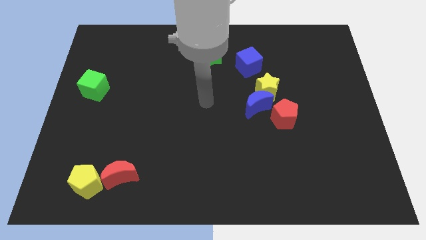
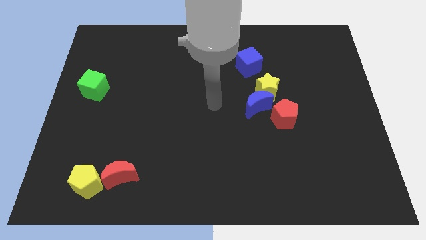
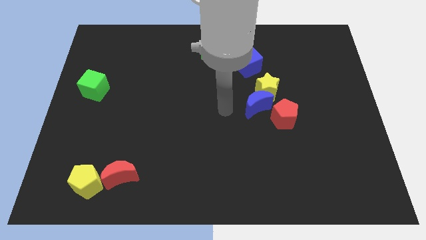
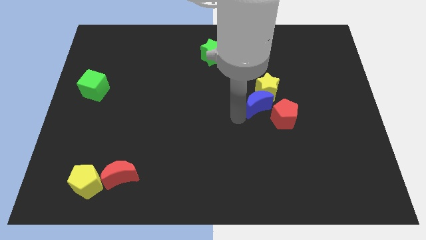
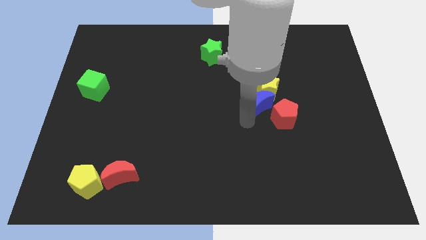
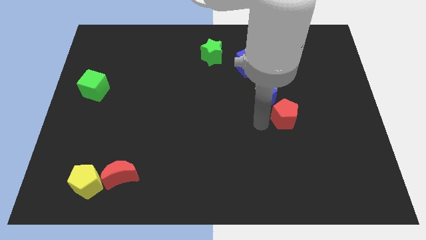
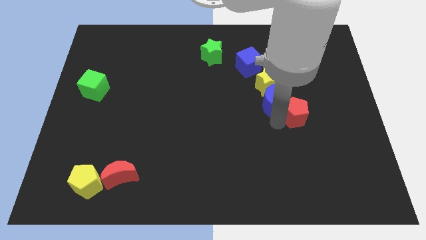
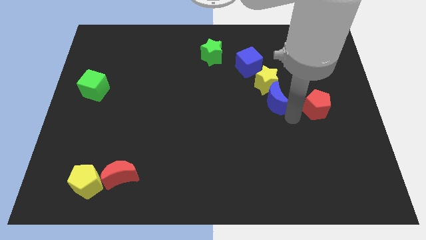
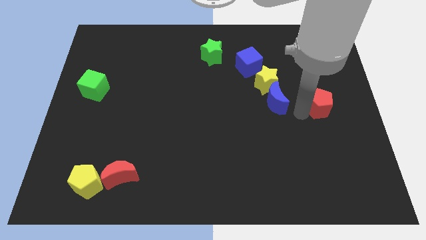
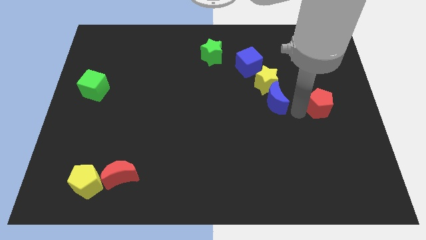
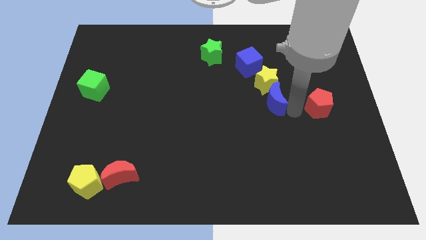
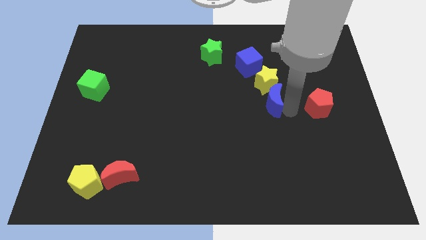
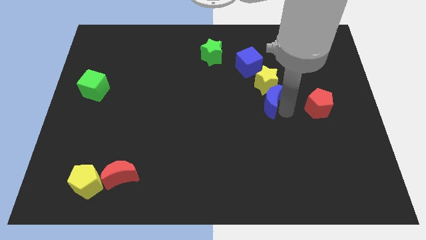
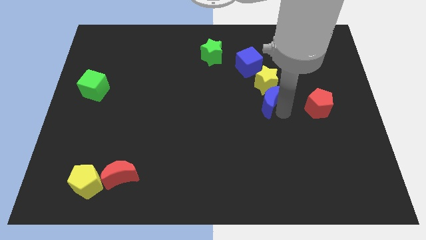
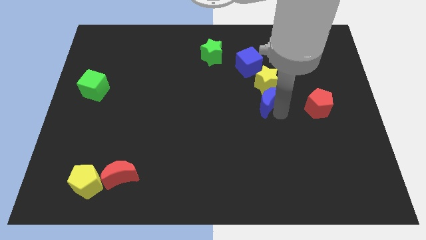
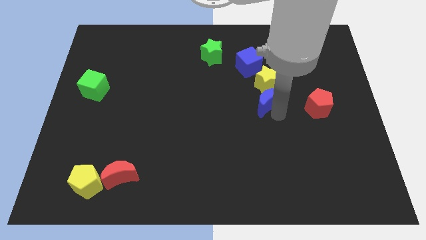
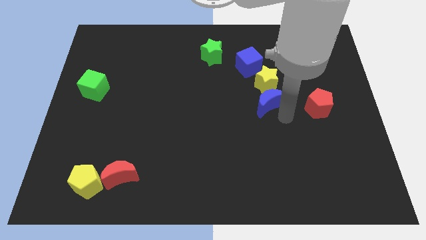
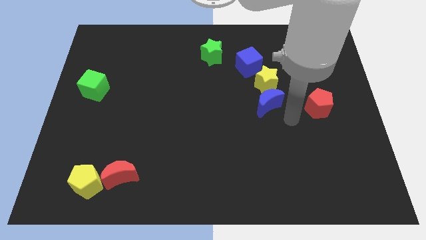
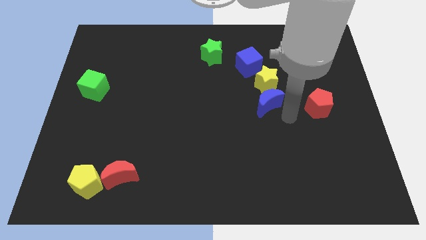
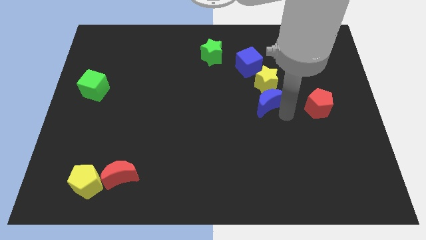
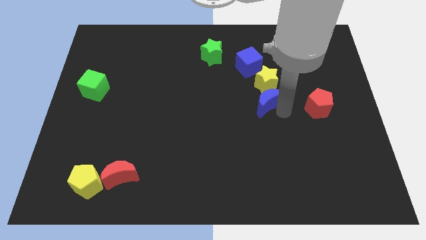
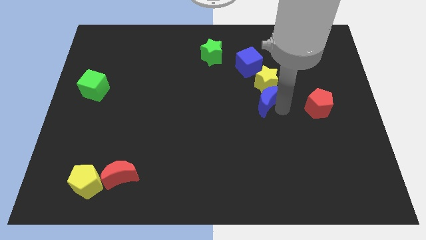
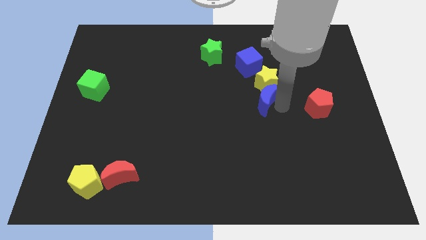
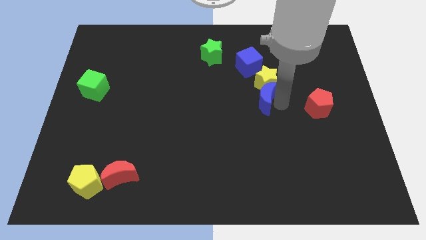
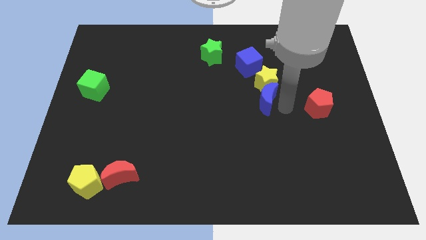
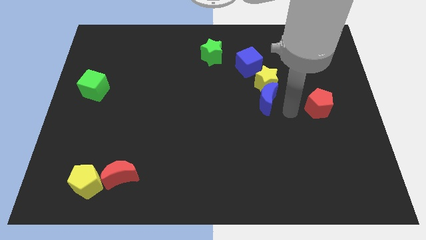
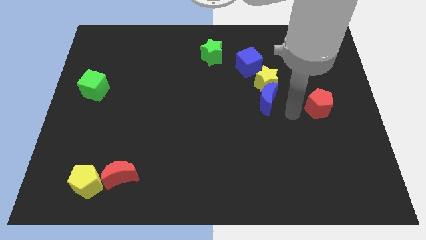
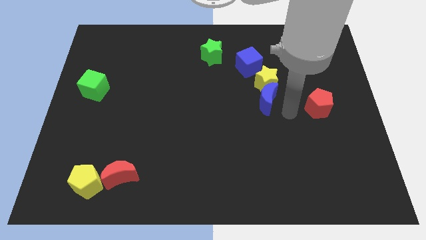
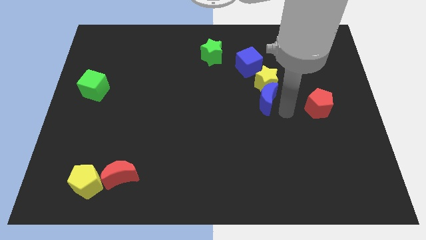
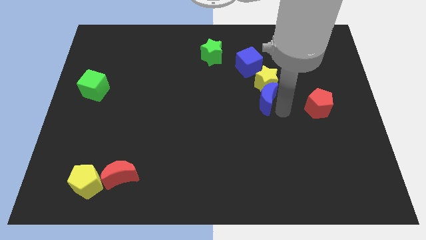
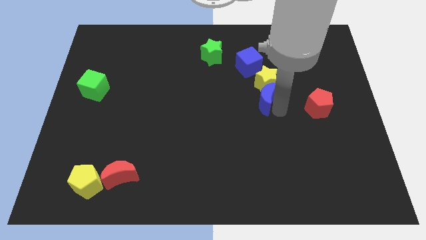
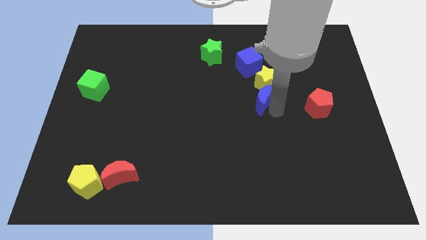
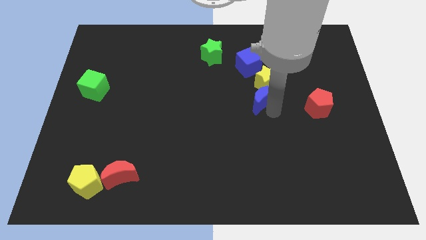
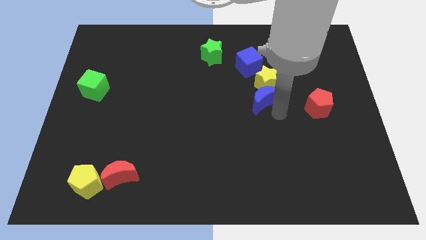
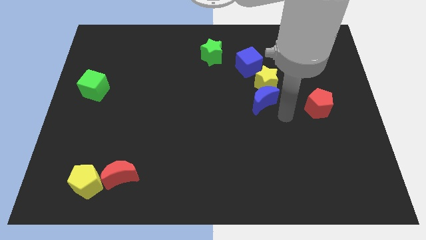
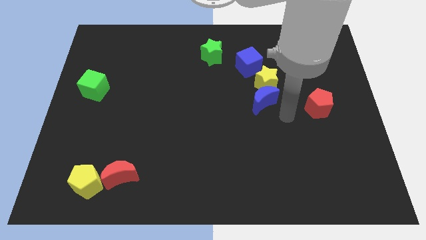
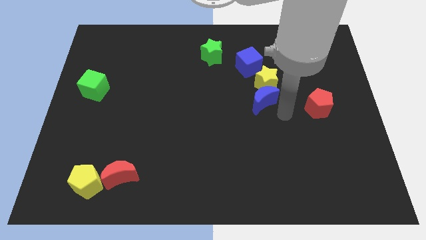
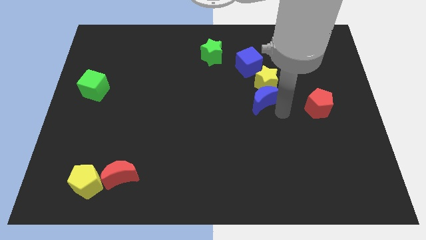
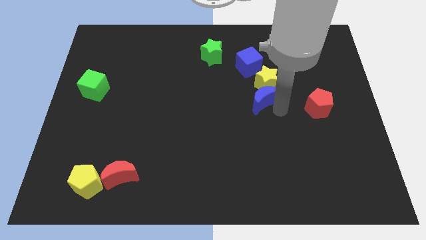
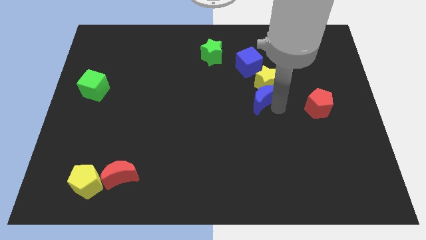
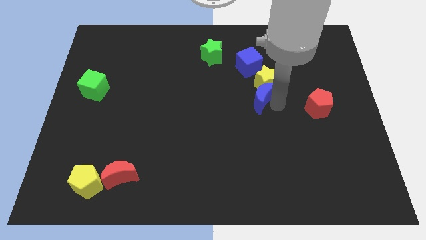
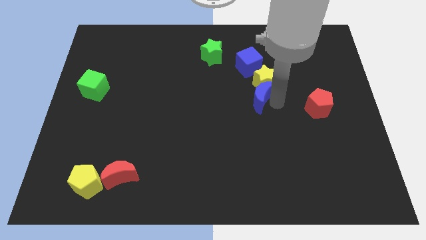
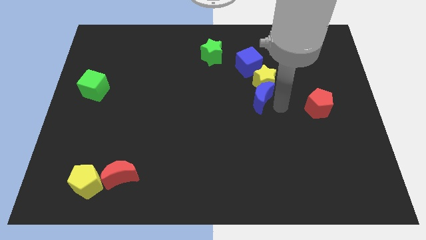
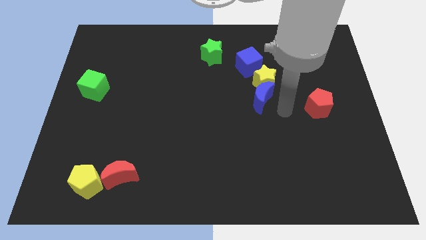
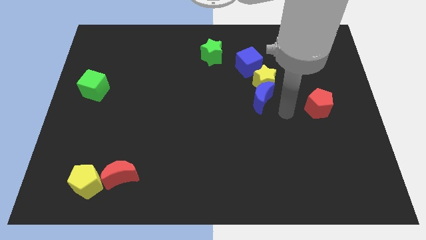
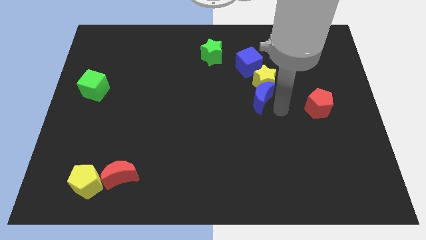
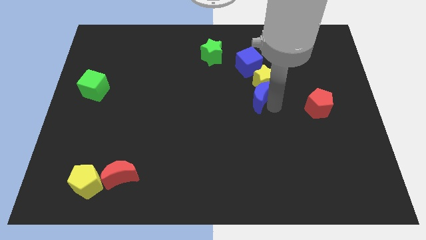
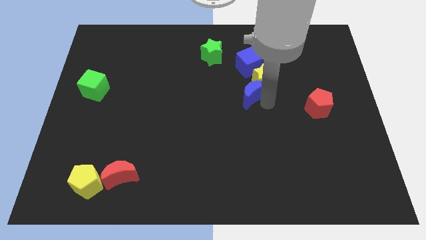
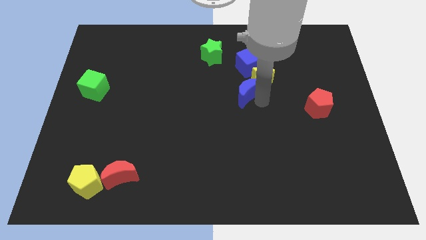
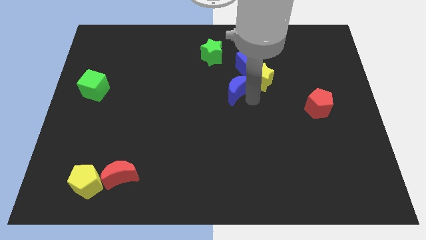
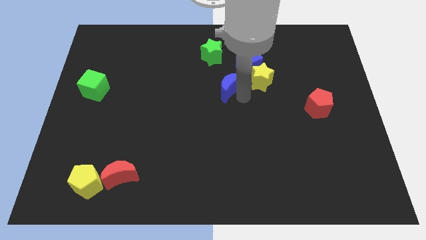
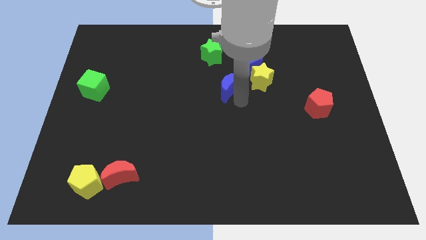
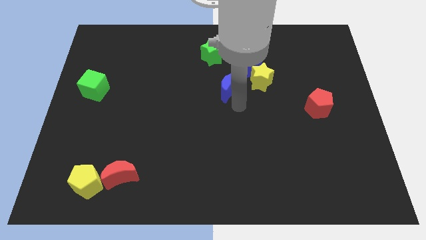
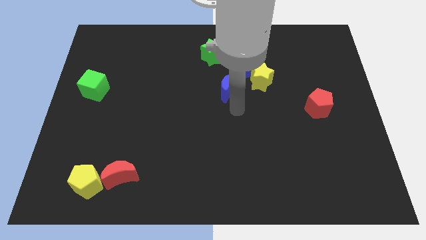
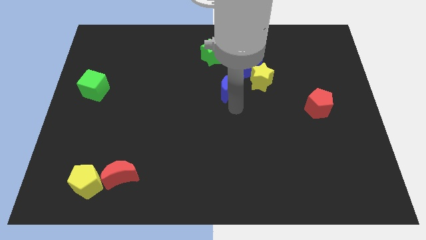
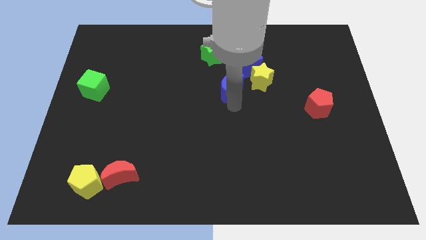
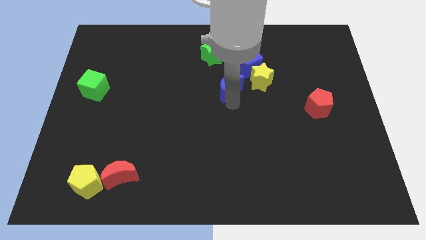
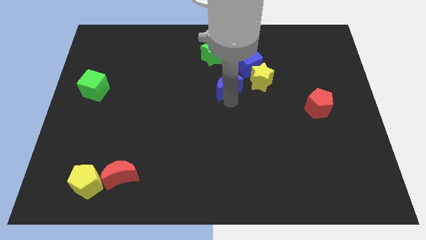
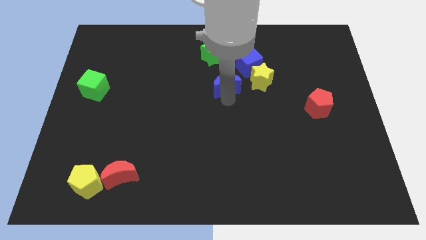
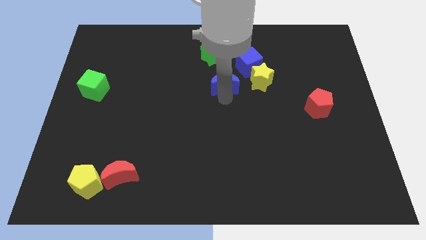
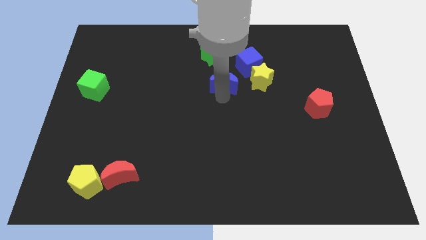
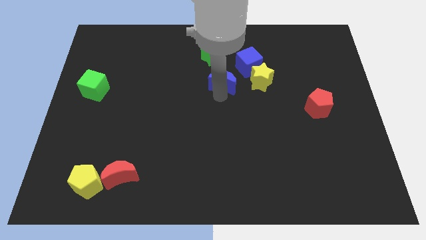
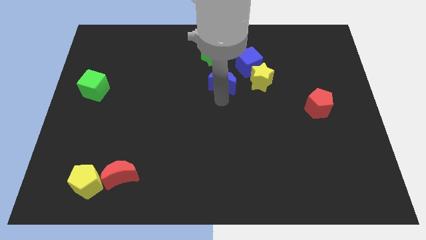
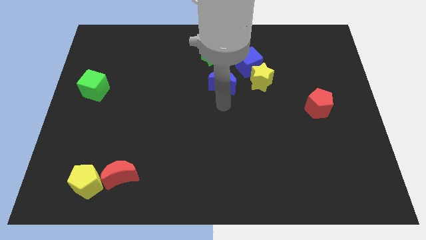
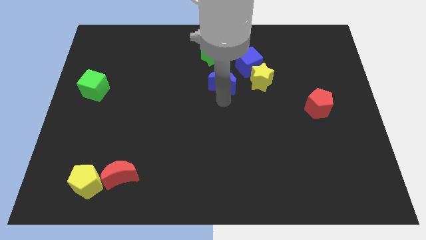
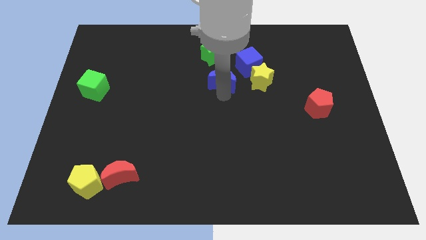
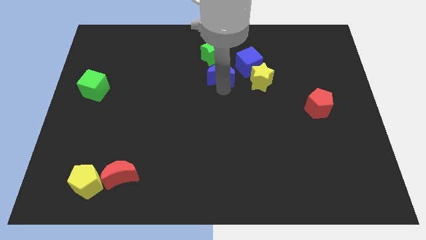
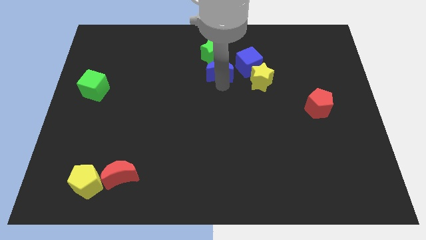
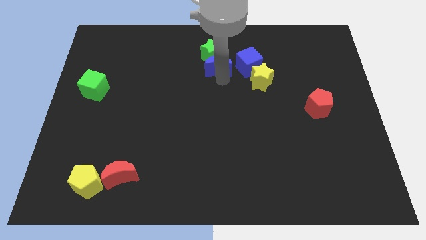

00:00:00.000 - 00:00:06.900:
slide the blue moon next to the green star

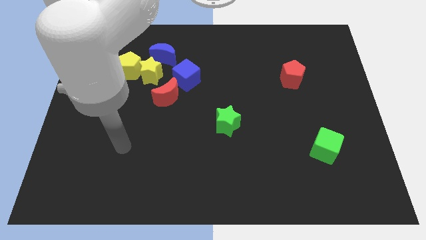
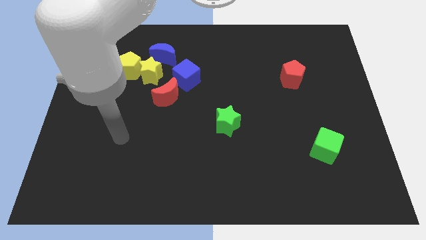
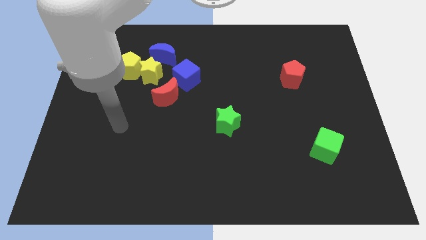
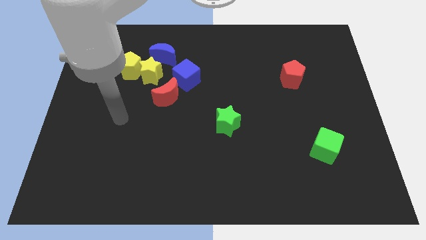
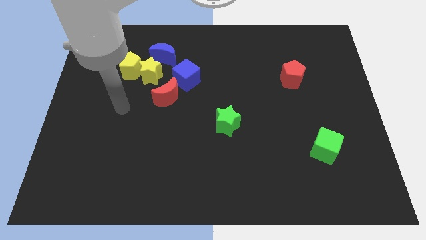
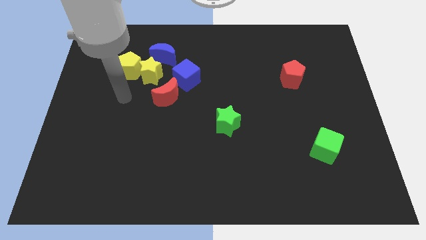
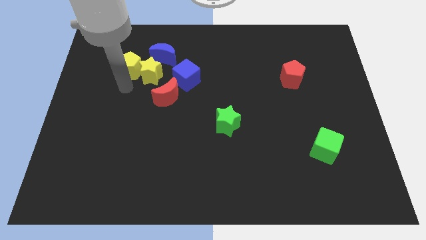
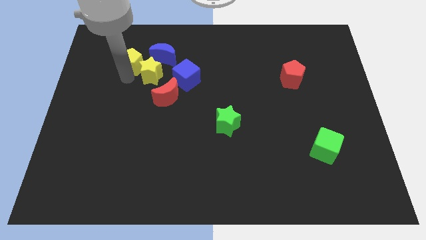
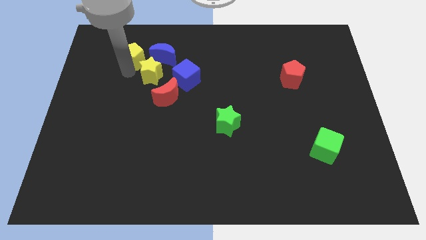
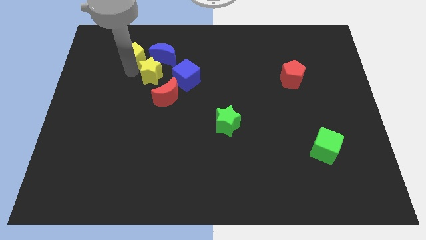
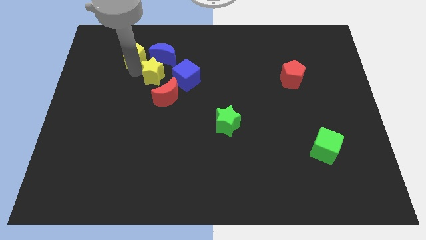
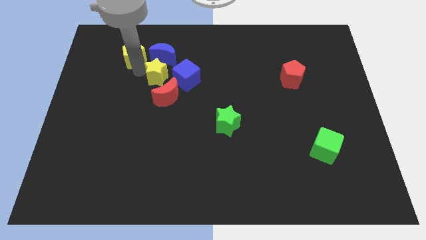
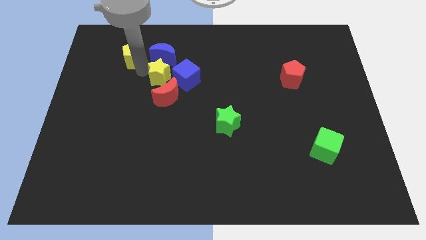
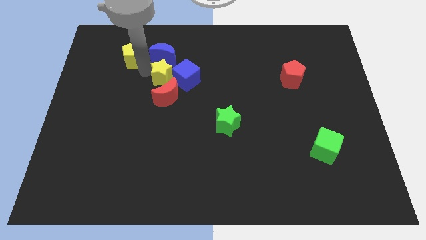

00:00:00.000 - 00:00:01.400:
push the yellow star close to the blue cube
